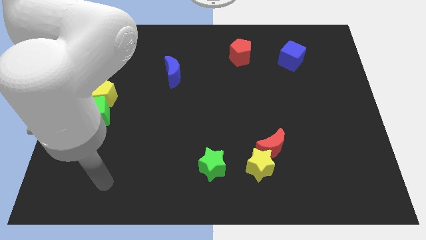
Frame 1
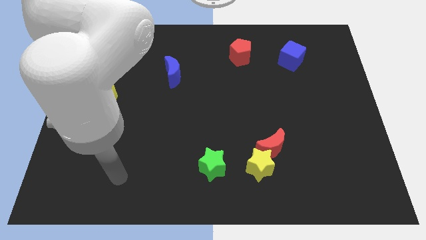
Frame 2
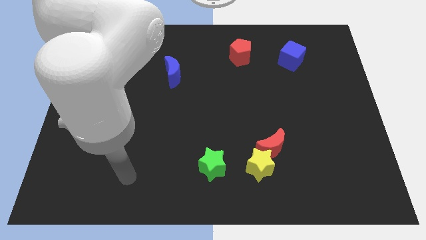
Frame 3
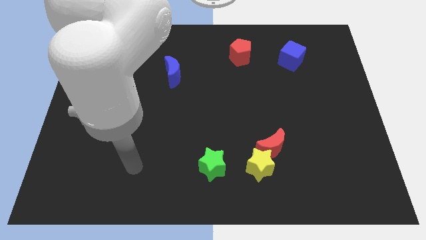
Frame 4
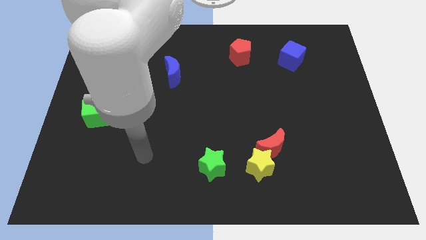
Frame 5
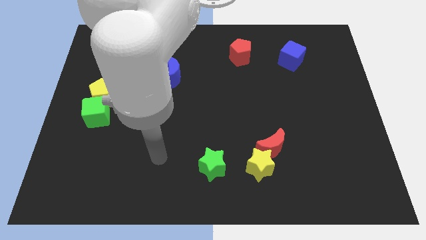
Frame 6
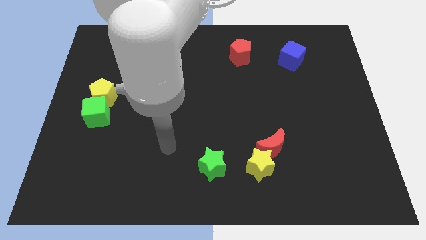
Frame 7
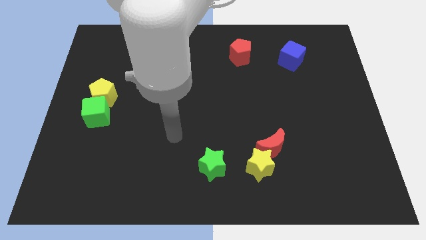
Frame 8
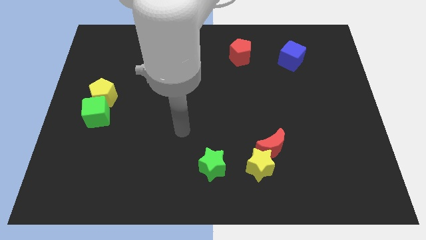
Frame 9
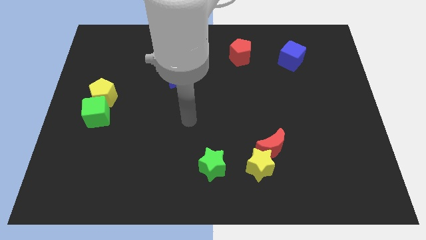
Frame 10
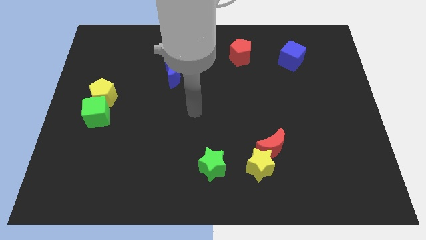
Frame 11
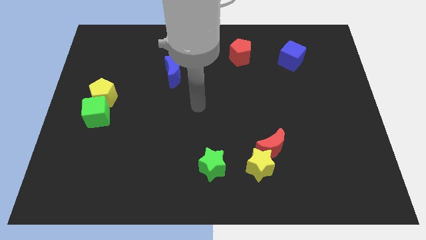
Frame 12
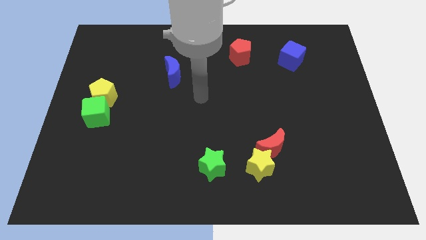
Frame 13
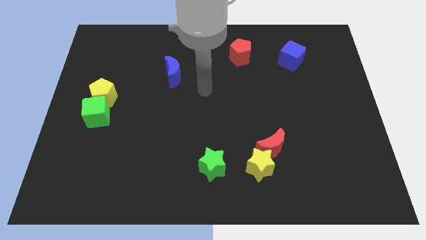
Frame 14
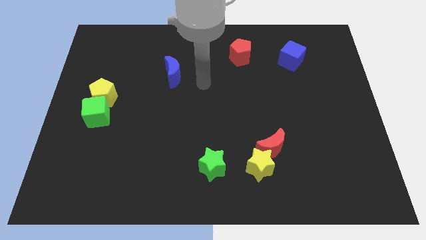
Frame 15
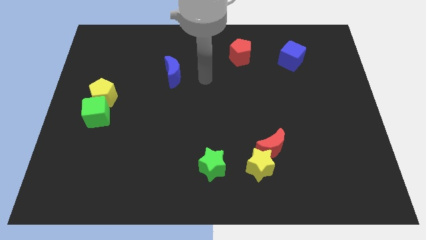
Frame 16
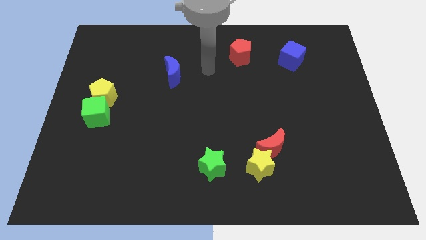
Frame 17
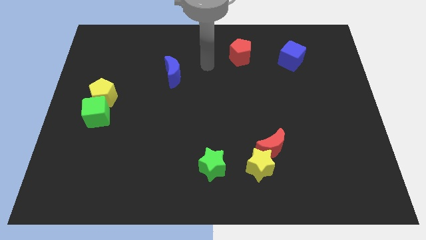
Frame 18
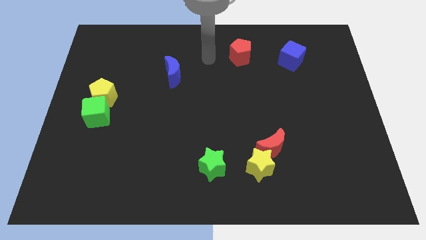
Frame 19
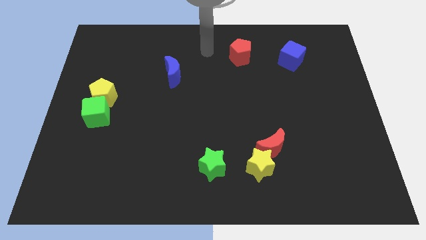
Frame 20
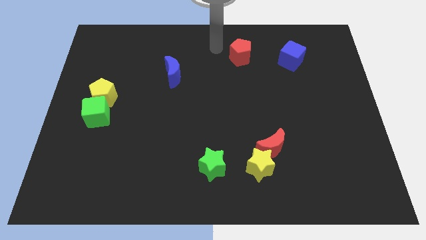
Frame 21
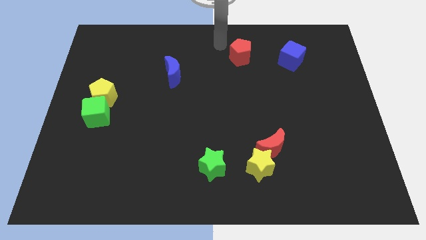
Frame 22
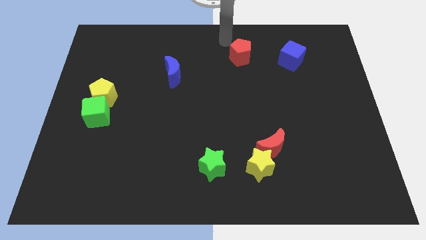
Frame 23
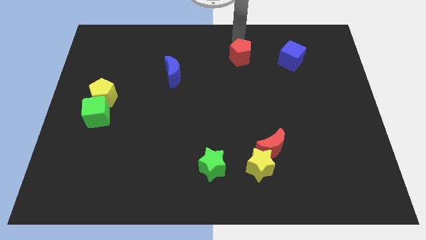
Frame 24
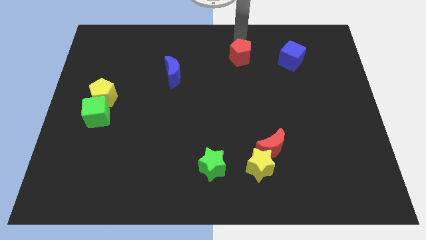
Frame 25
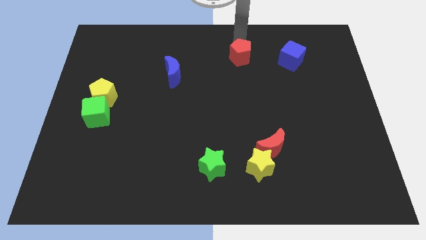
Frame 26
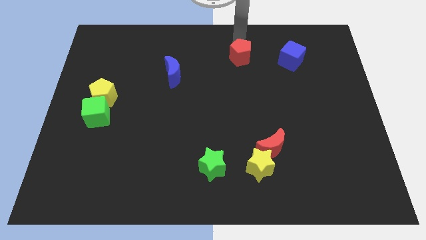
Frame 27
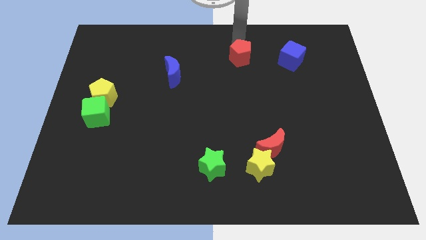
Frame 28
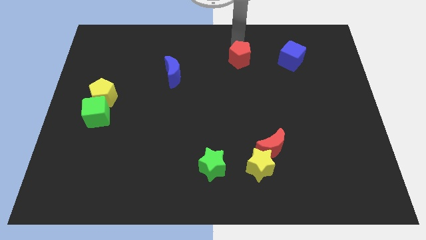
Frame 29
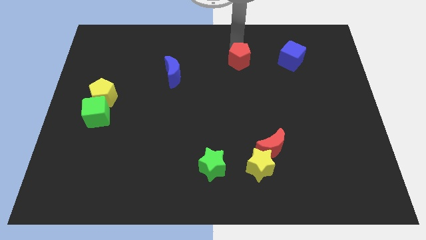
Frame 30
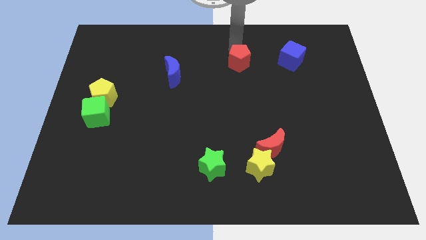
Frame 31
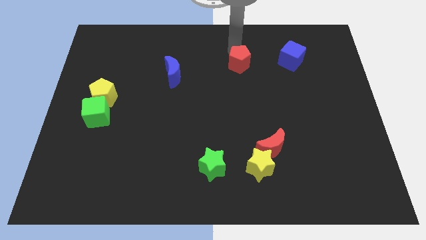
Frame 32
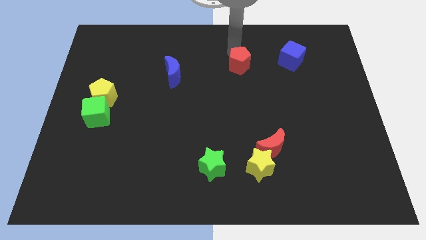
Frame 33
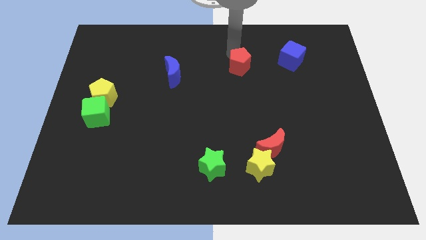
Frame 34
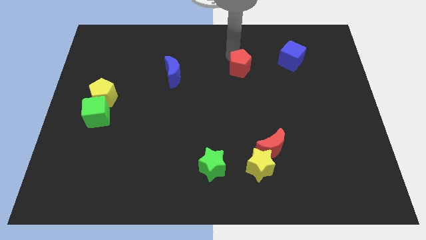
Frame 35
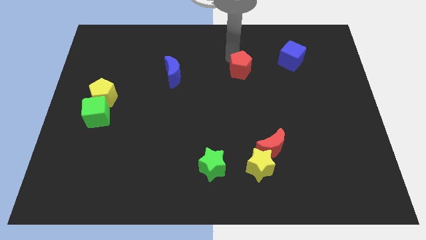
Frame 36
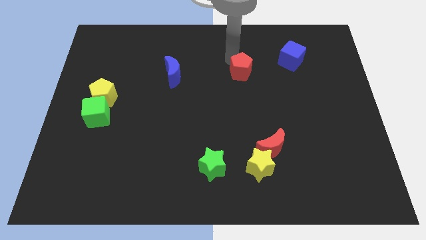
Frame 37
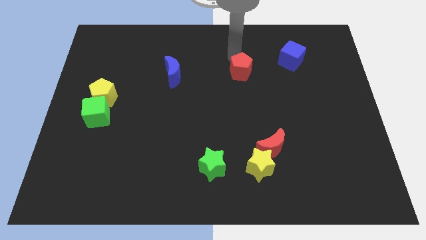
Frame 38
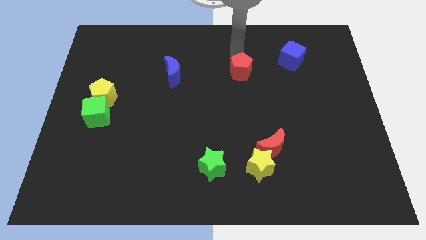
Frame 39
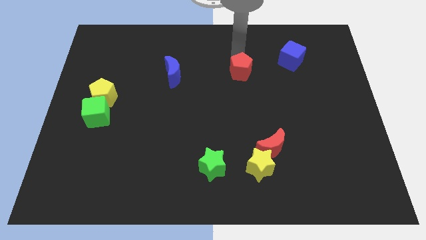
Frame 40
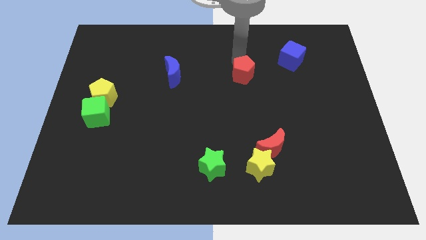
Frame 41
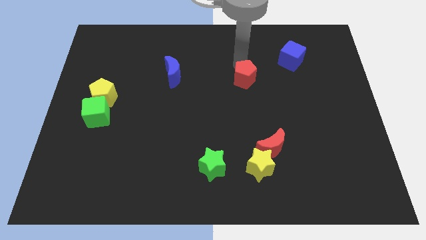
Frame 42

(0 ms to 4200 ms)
slightly push the red pentagon down

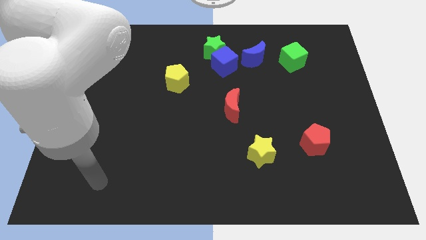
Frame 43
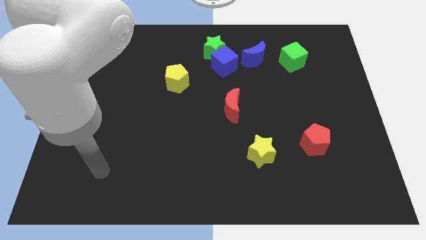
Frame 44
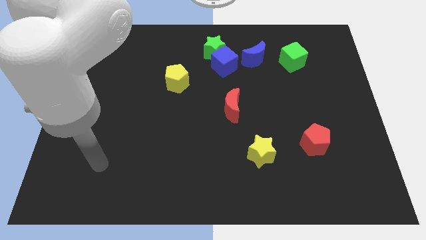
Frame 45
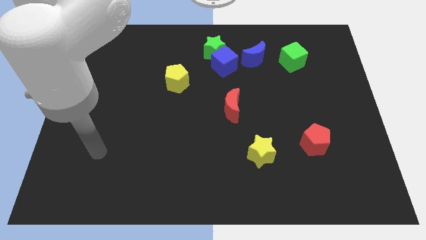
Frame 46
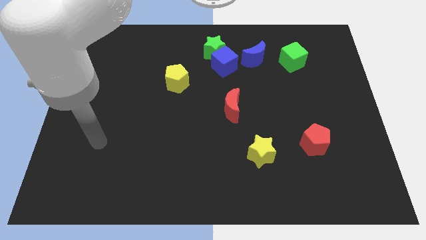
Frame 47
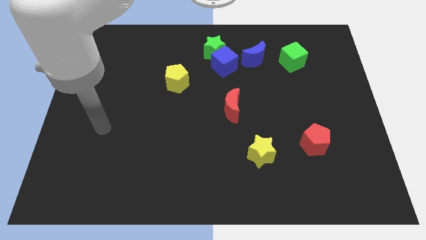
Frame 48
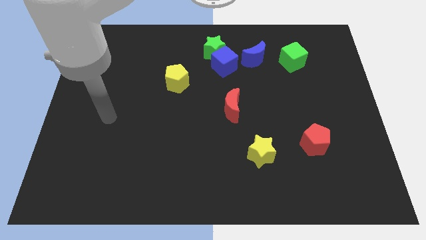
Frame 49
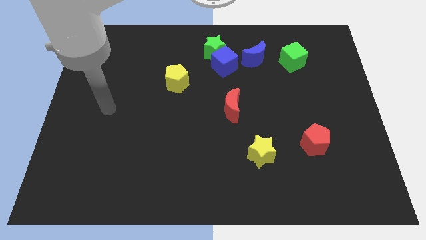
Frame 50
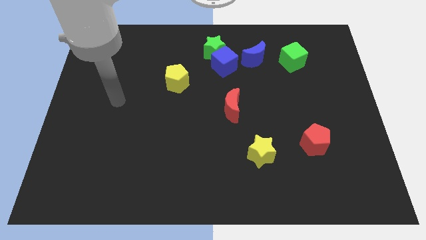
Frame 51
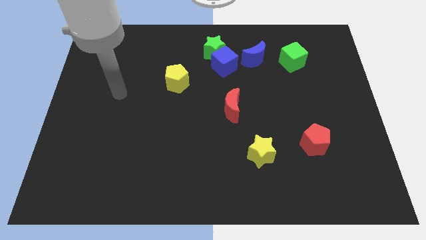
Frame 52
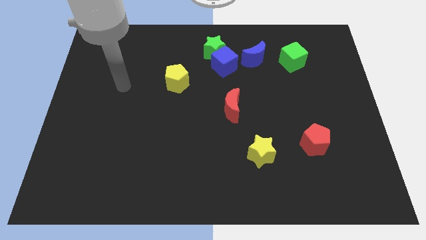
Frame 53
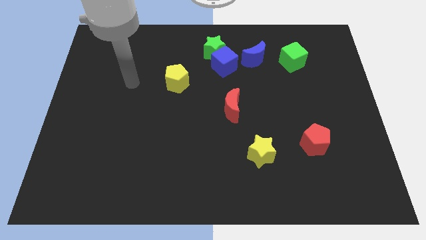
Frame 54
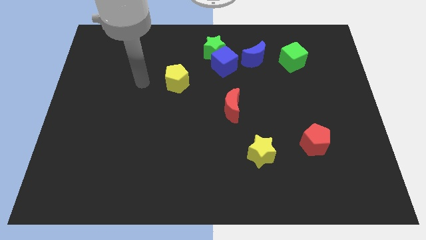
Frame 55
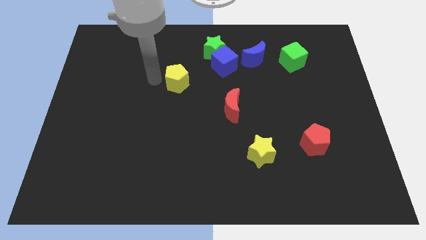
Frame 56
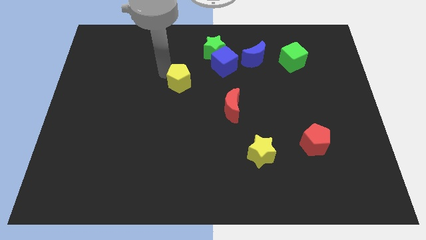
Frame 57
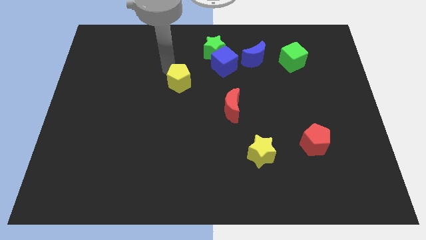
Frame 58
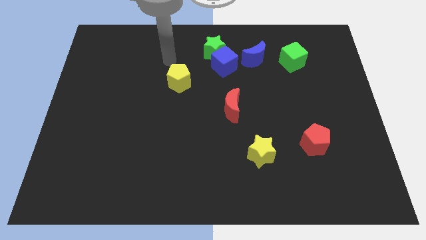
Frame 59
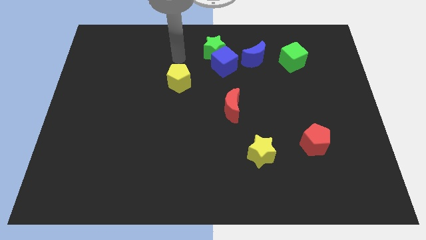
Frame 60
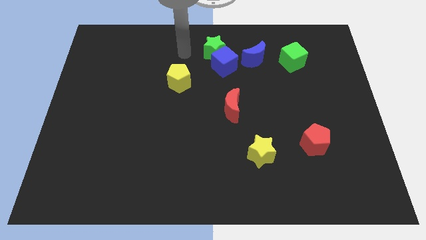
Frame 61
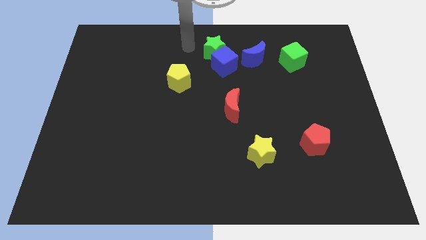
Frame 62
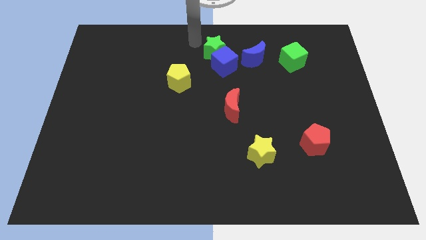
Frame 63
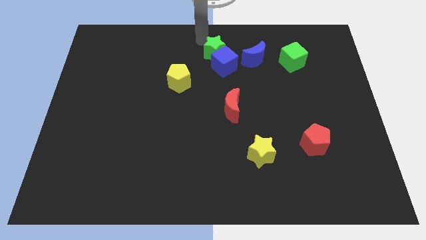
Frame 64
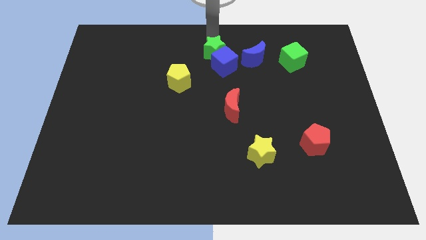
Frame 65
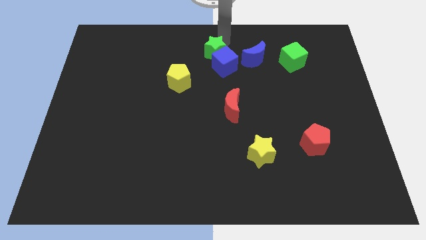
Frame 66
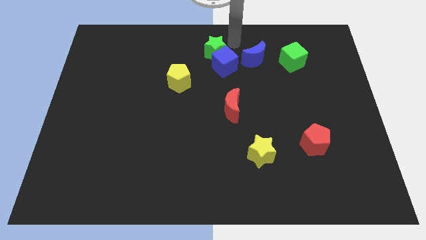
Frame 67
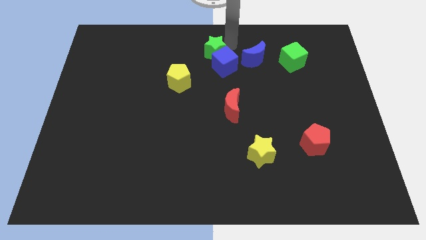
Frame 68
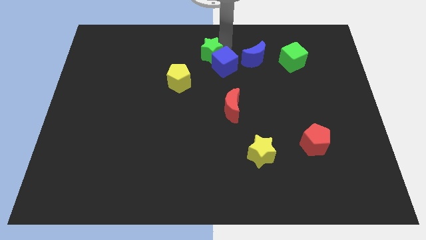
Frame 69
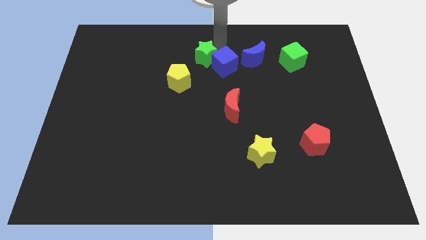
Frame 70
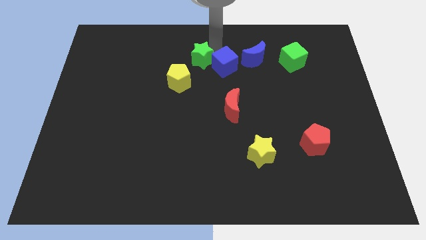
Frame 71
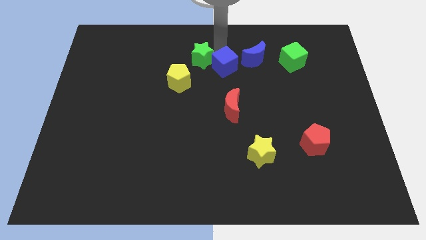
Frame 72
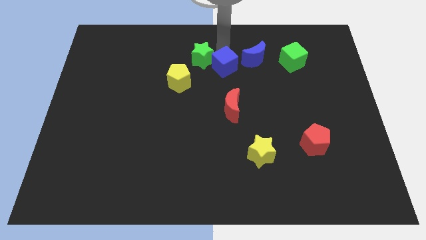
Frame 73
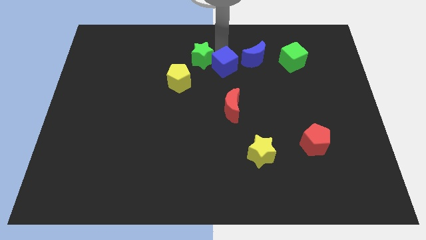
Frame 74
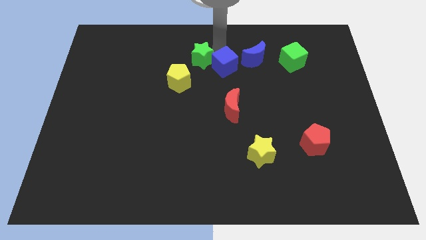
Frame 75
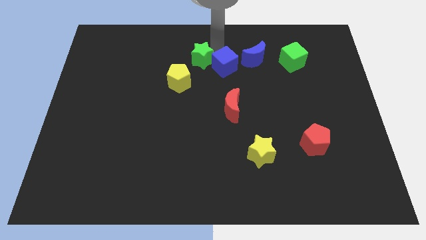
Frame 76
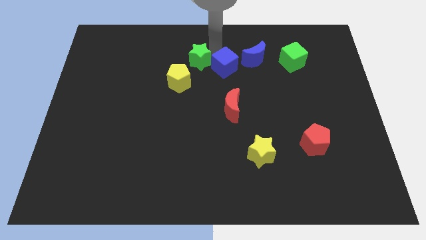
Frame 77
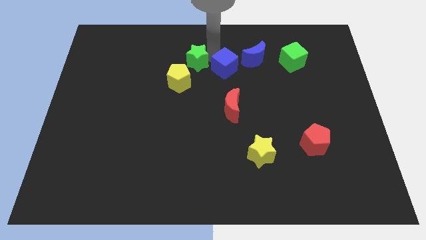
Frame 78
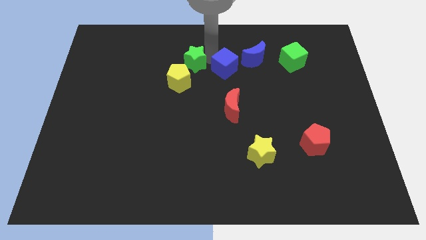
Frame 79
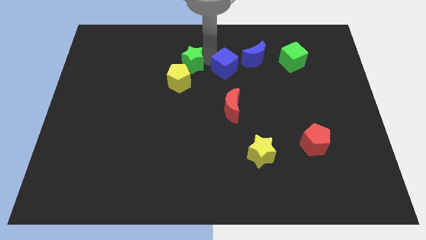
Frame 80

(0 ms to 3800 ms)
slide the green star down and then to the left a little

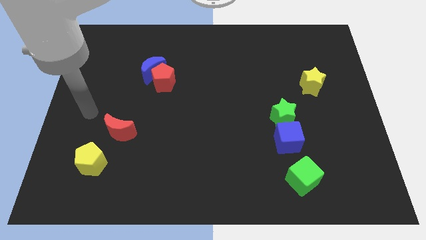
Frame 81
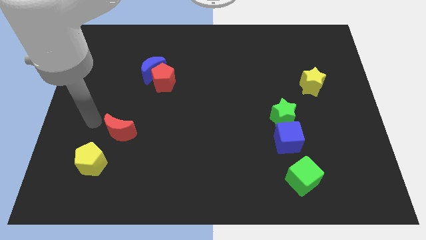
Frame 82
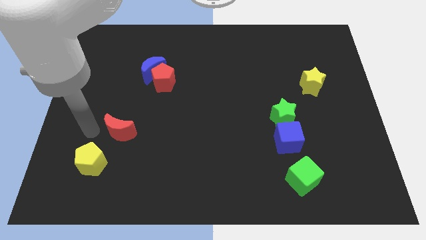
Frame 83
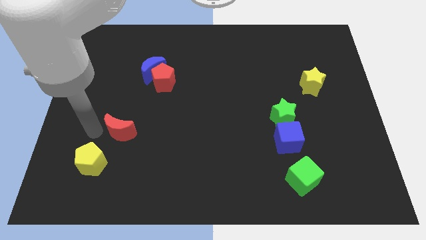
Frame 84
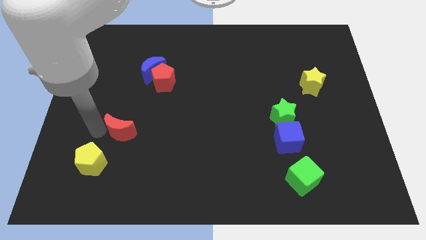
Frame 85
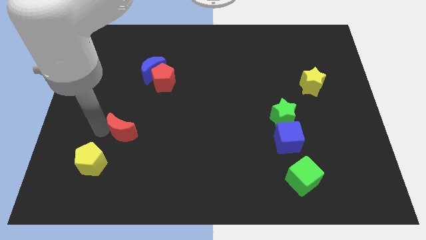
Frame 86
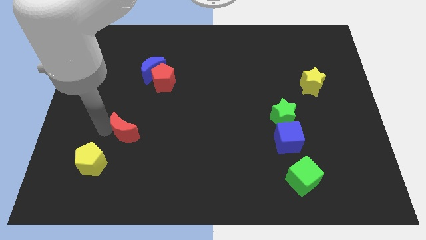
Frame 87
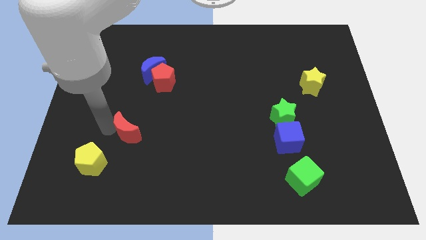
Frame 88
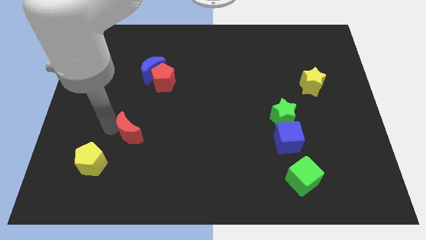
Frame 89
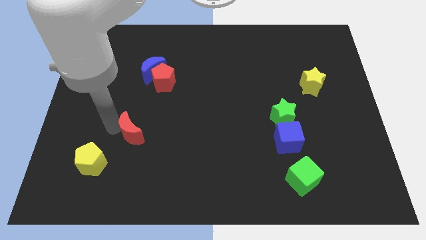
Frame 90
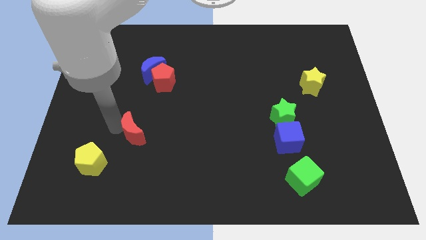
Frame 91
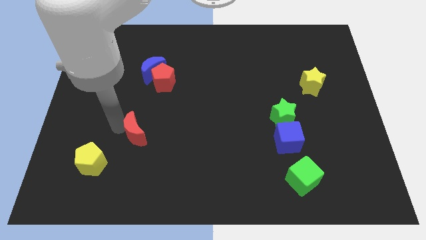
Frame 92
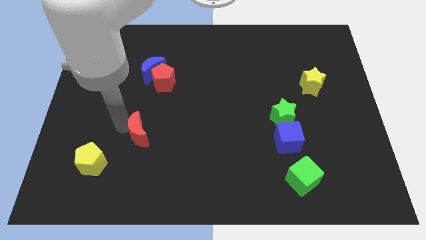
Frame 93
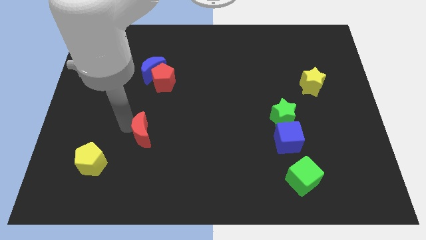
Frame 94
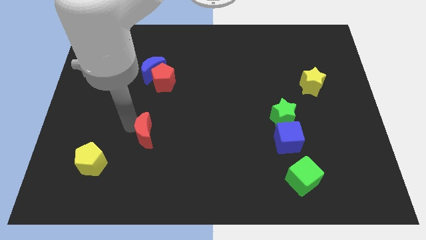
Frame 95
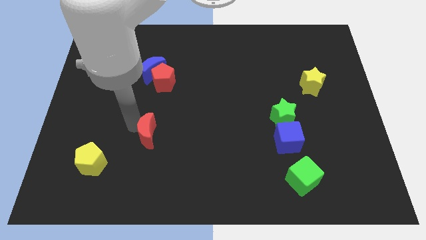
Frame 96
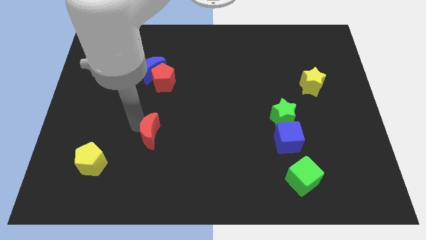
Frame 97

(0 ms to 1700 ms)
move the red moon to the right a little
